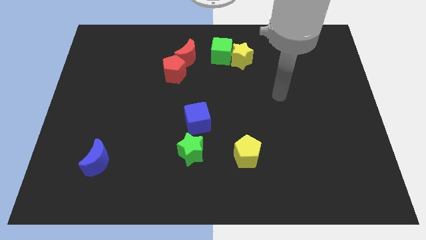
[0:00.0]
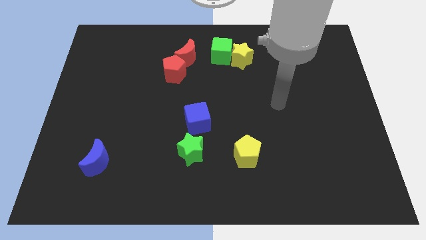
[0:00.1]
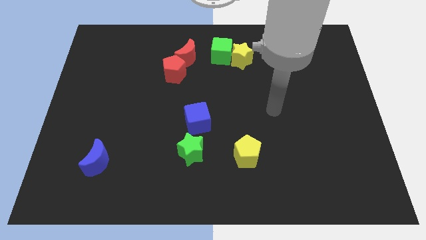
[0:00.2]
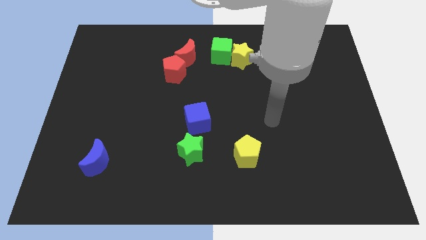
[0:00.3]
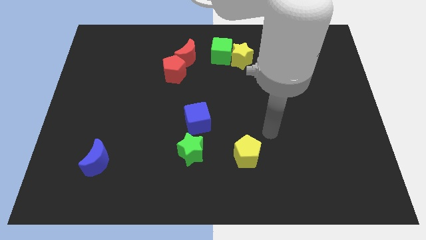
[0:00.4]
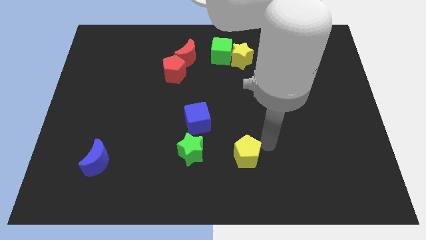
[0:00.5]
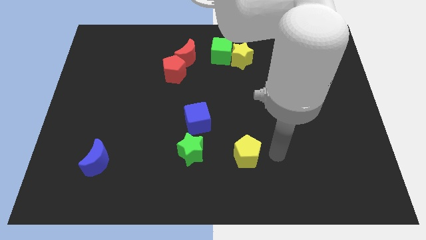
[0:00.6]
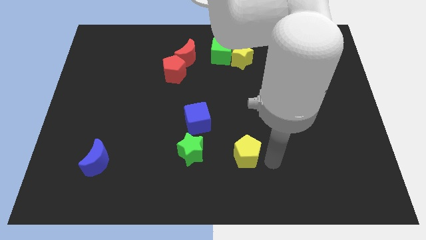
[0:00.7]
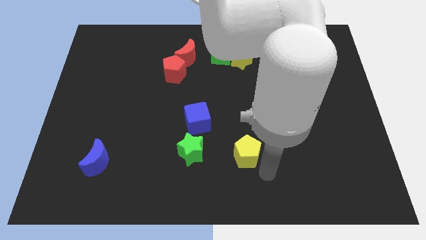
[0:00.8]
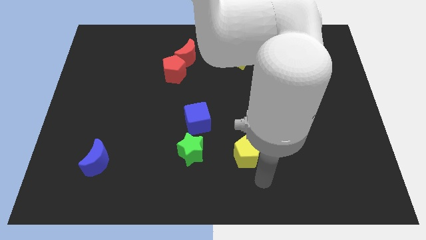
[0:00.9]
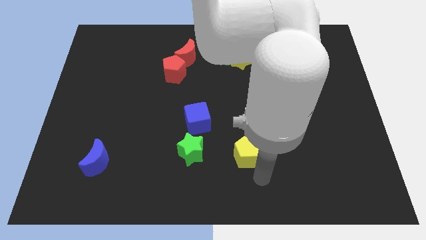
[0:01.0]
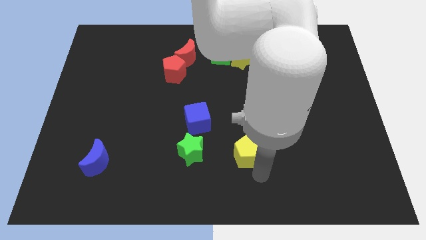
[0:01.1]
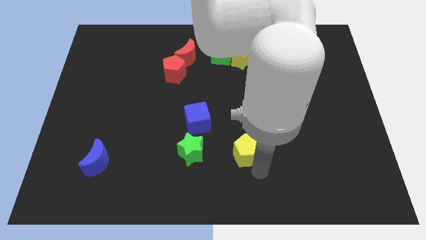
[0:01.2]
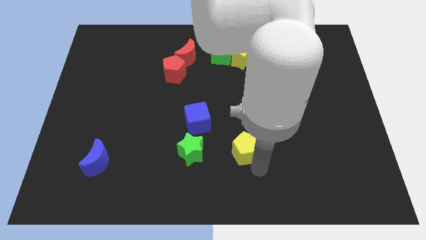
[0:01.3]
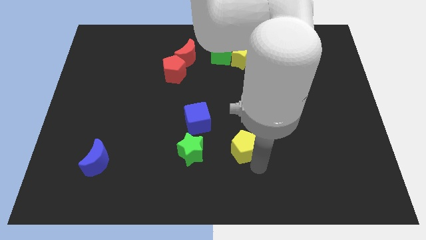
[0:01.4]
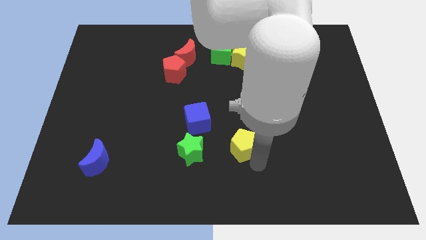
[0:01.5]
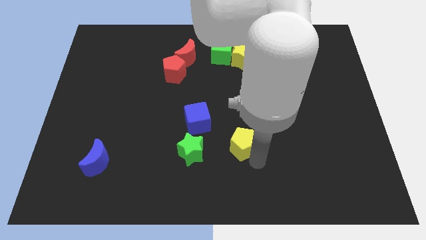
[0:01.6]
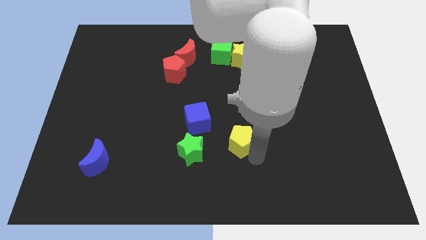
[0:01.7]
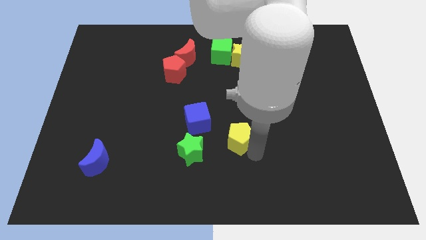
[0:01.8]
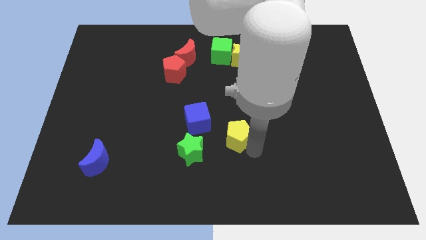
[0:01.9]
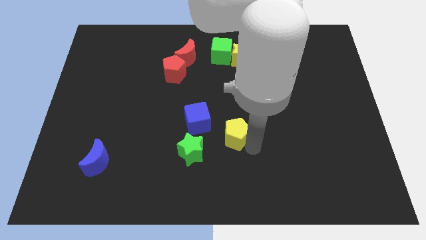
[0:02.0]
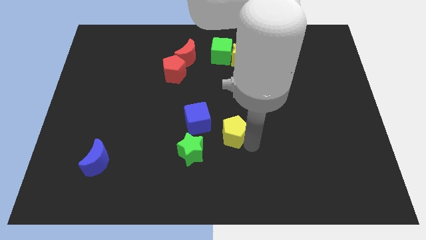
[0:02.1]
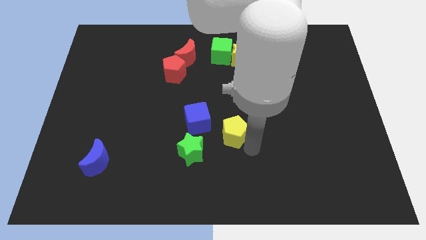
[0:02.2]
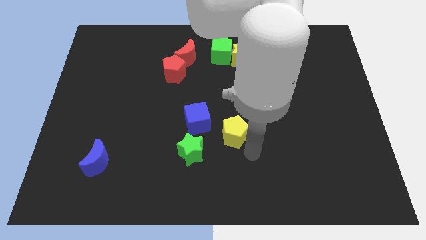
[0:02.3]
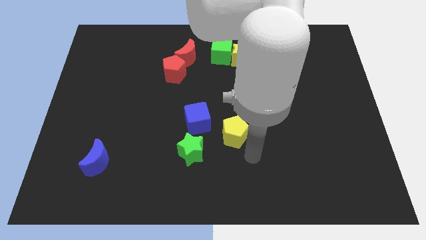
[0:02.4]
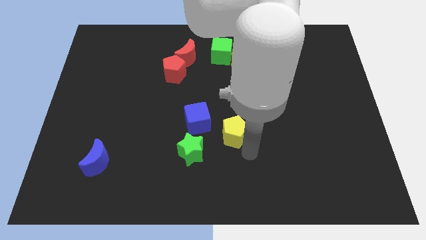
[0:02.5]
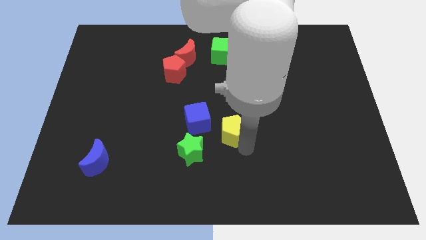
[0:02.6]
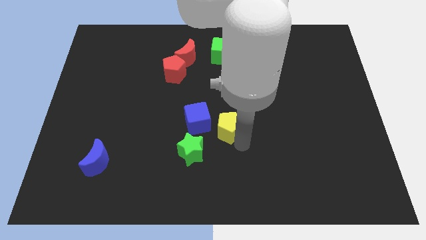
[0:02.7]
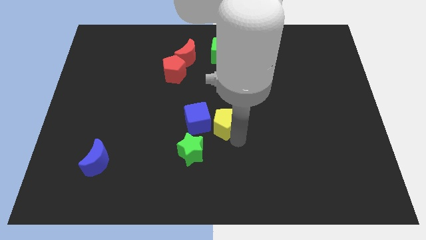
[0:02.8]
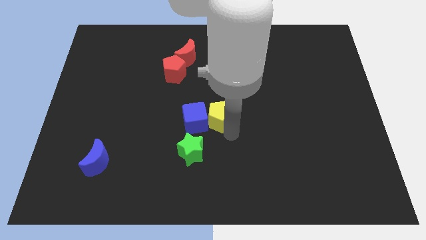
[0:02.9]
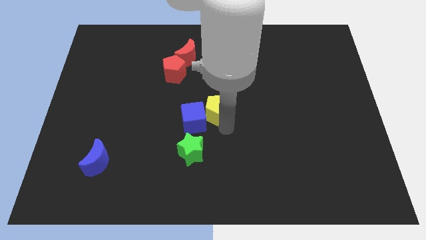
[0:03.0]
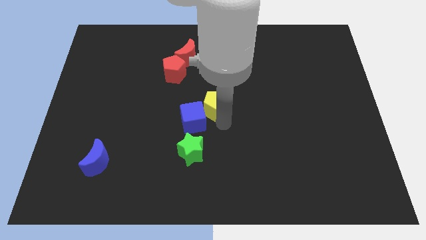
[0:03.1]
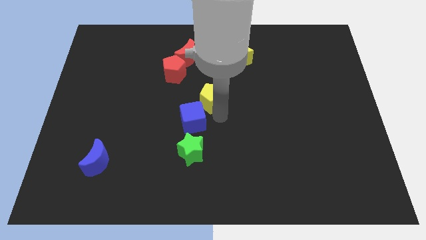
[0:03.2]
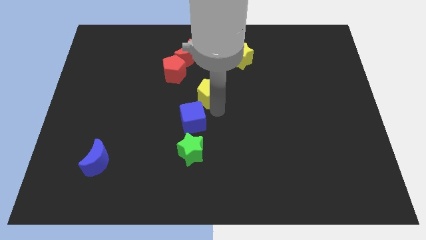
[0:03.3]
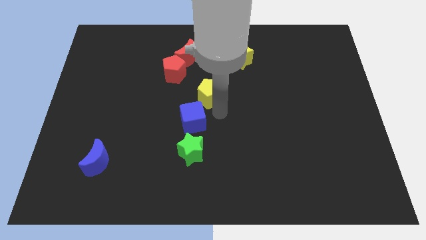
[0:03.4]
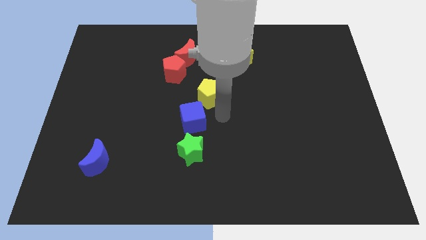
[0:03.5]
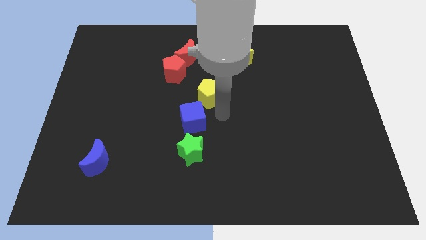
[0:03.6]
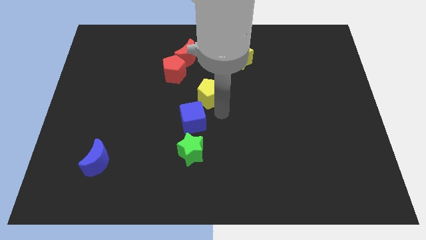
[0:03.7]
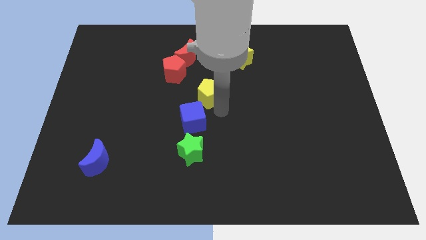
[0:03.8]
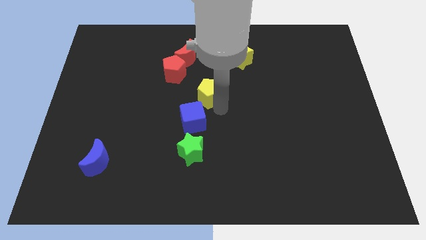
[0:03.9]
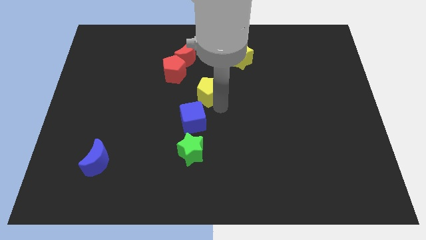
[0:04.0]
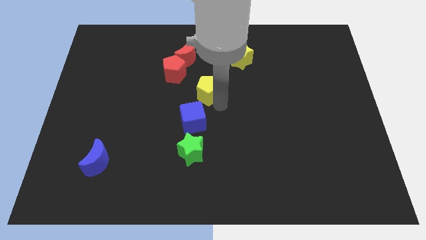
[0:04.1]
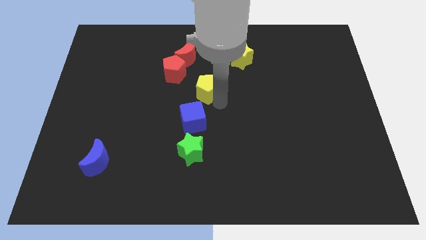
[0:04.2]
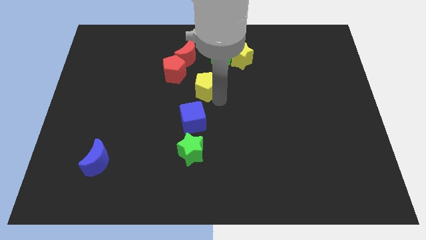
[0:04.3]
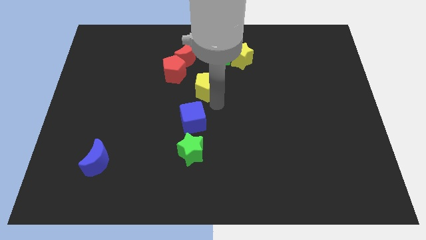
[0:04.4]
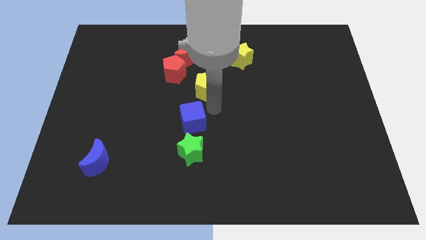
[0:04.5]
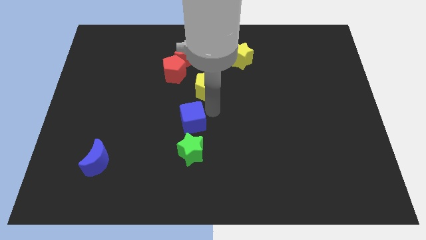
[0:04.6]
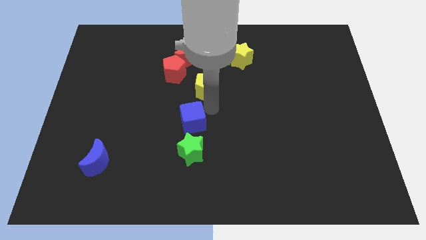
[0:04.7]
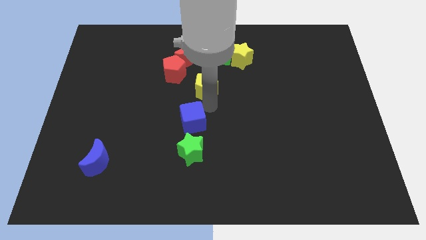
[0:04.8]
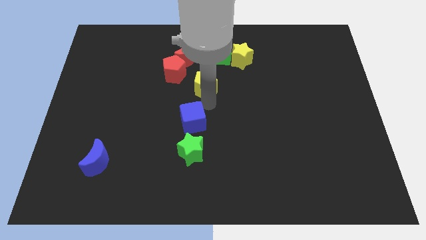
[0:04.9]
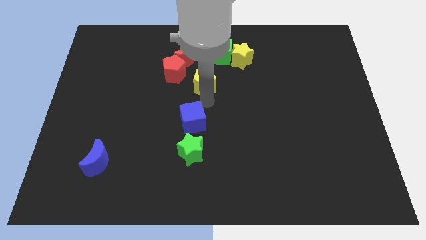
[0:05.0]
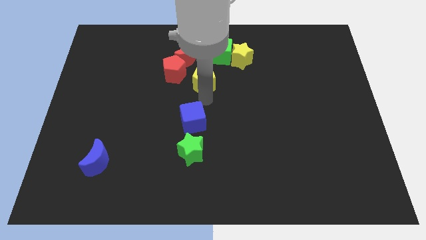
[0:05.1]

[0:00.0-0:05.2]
move the yellow pentagon to the bottom left of the green cube

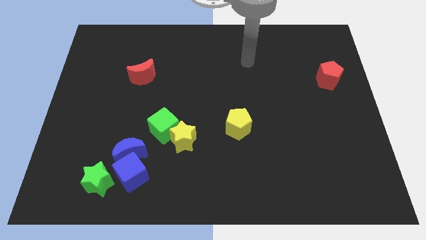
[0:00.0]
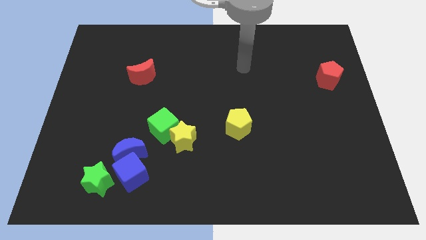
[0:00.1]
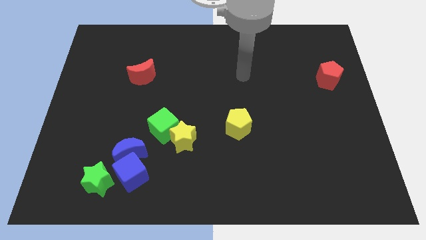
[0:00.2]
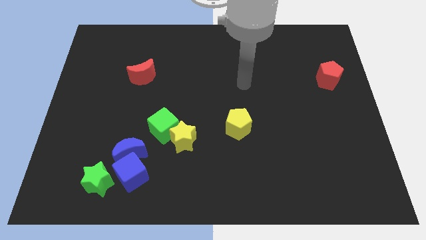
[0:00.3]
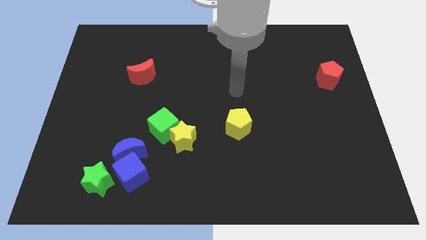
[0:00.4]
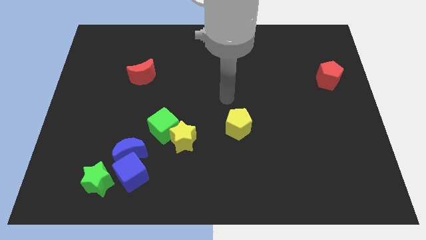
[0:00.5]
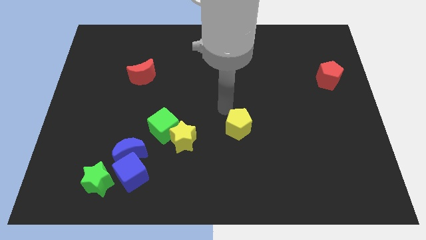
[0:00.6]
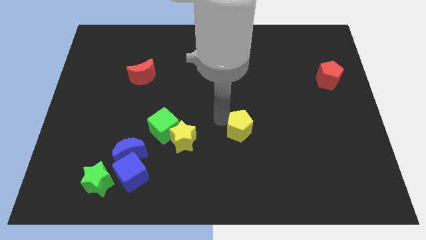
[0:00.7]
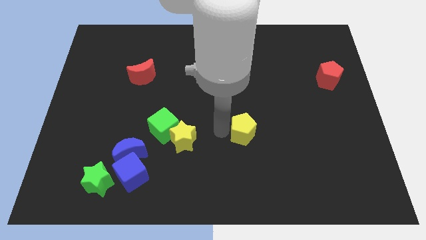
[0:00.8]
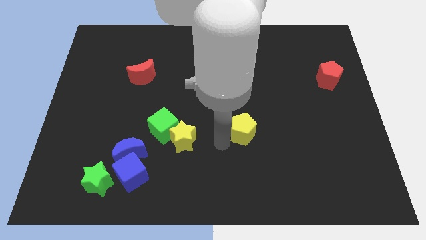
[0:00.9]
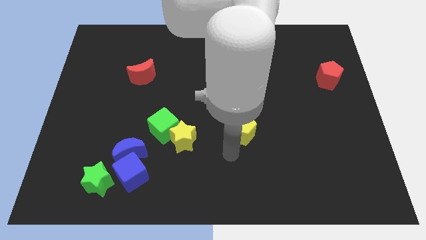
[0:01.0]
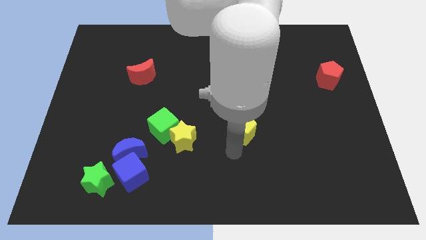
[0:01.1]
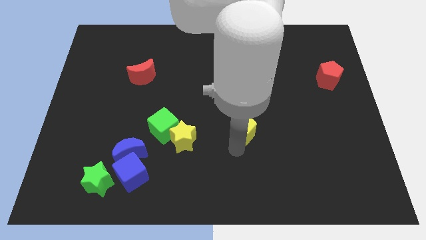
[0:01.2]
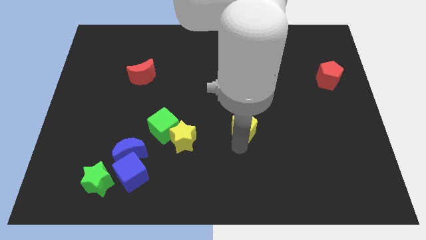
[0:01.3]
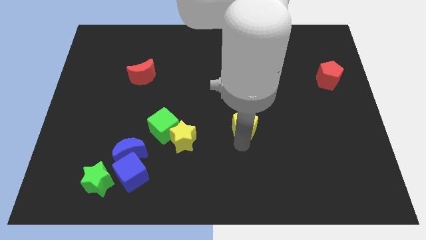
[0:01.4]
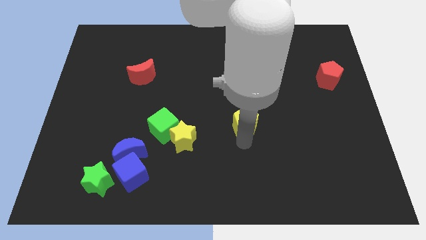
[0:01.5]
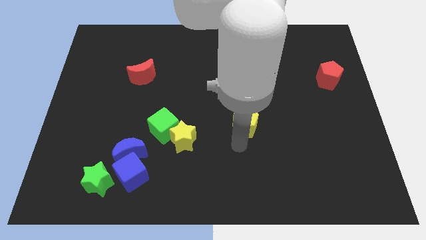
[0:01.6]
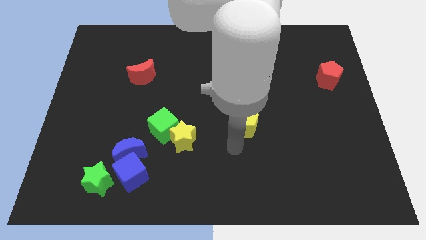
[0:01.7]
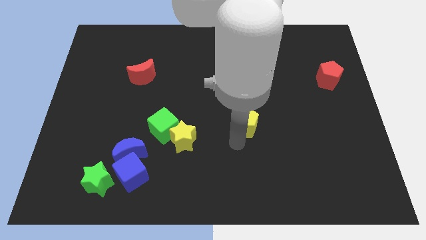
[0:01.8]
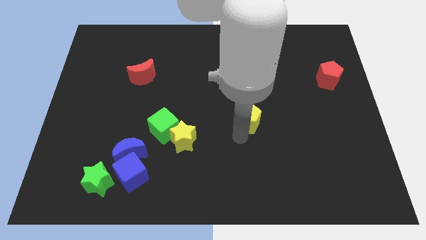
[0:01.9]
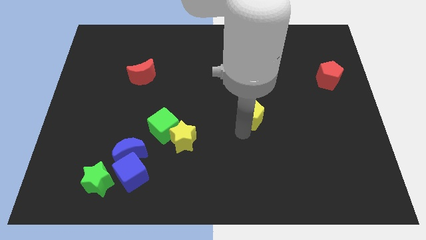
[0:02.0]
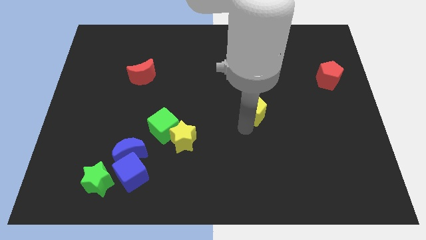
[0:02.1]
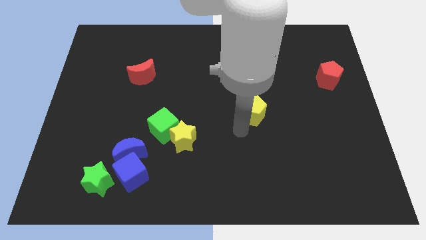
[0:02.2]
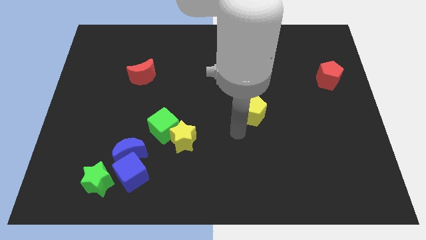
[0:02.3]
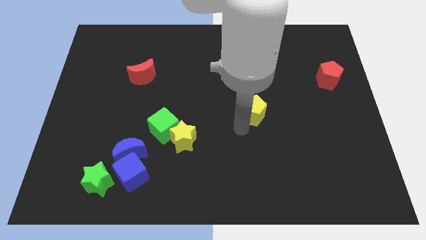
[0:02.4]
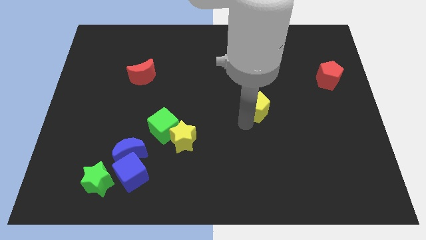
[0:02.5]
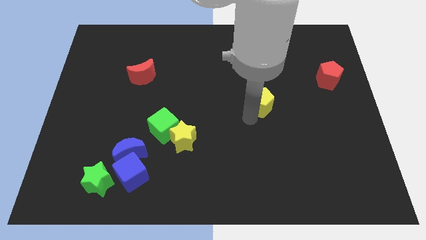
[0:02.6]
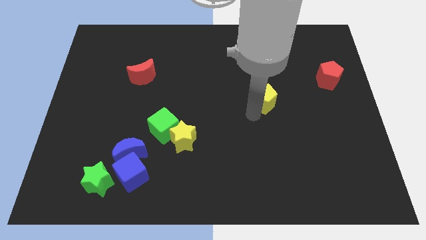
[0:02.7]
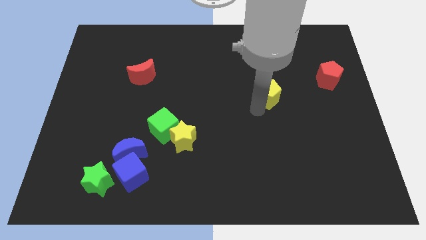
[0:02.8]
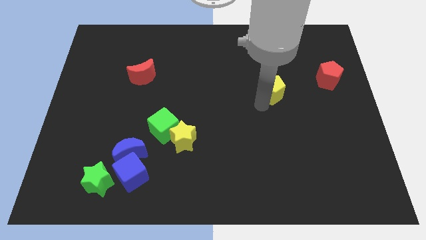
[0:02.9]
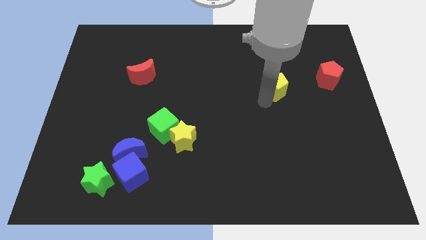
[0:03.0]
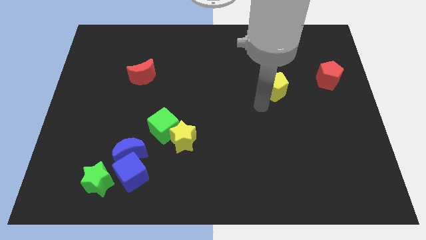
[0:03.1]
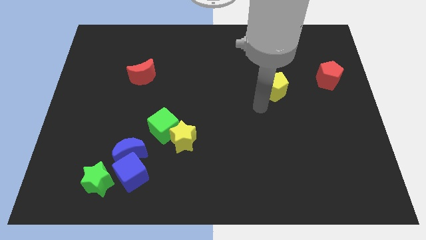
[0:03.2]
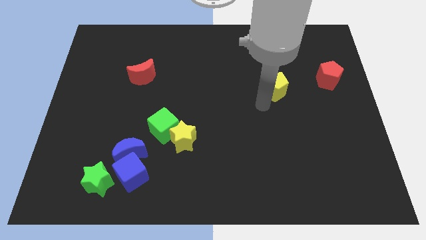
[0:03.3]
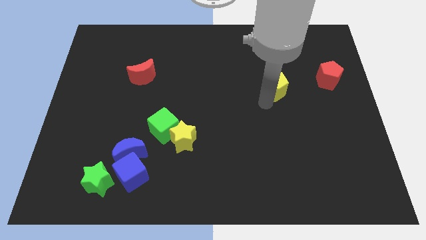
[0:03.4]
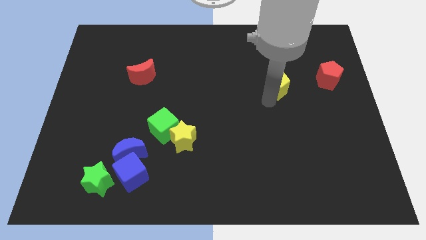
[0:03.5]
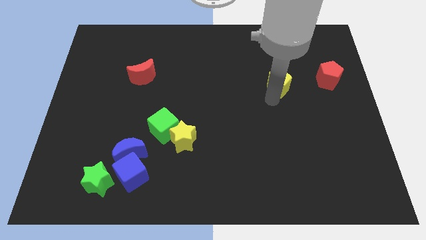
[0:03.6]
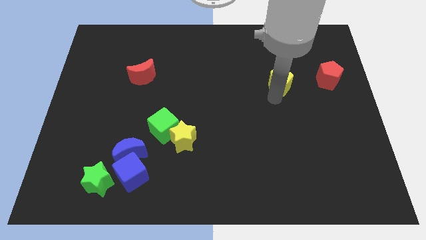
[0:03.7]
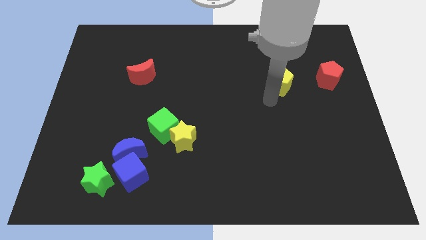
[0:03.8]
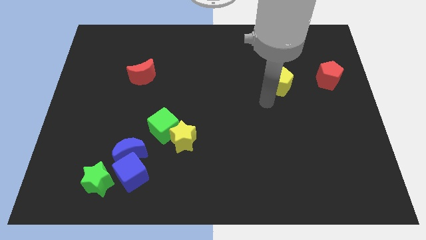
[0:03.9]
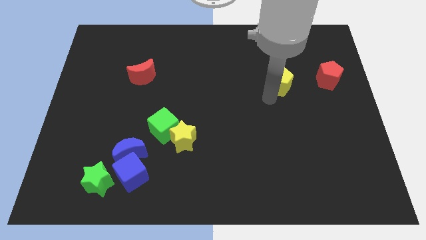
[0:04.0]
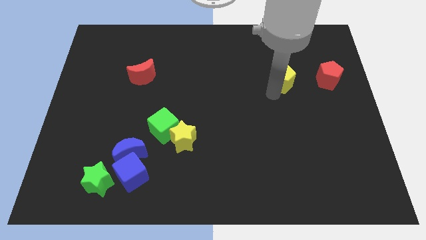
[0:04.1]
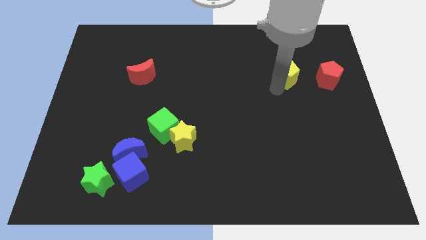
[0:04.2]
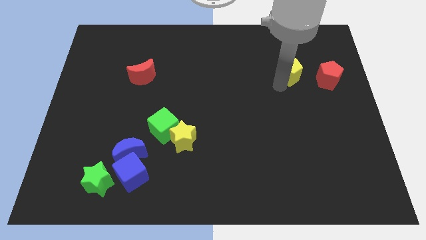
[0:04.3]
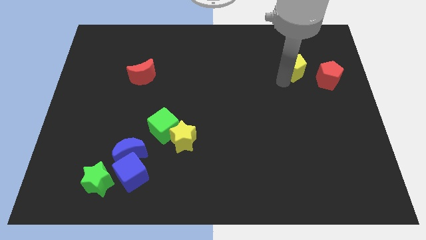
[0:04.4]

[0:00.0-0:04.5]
move the yellow pentagon diagonally up and to the left of the red pentagon
